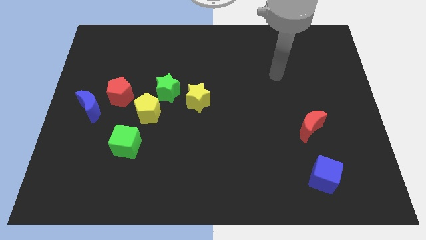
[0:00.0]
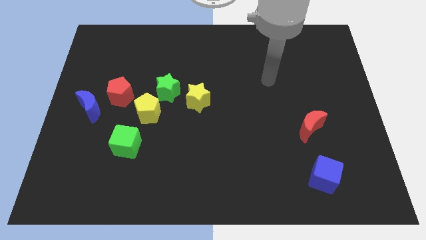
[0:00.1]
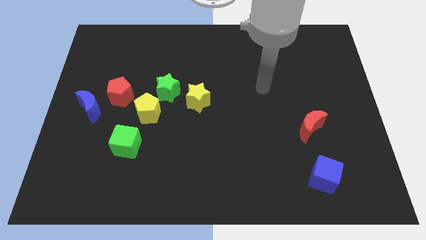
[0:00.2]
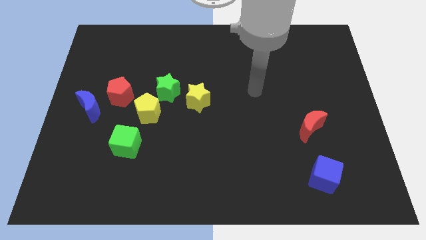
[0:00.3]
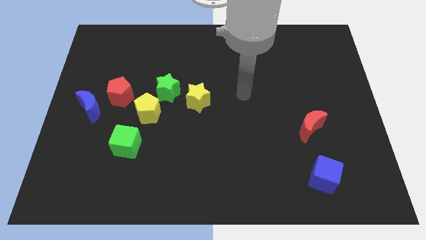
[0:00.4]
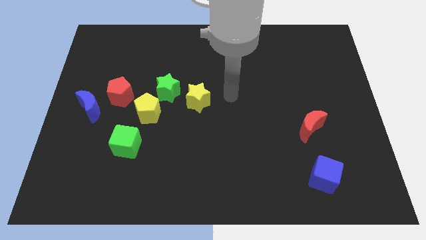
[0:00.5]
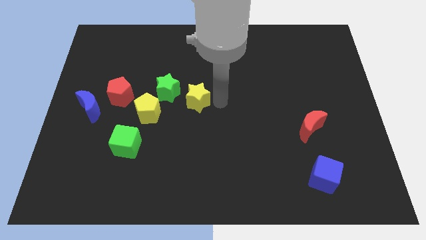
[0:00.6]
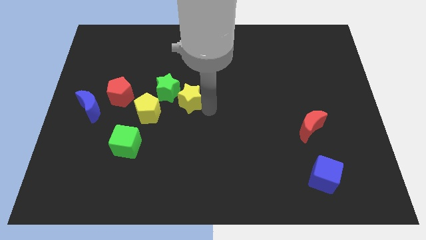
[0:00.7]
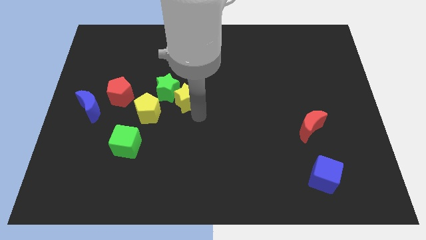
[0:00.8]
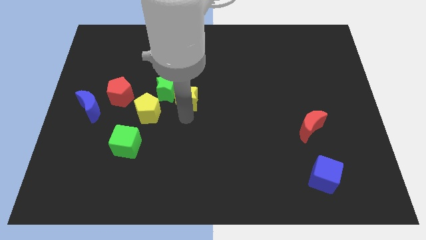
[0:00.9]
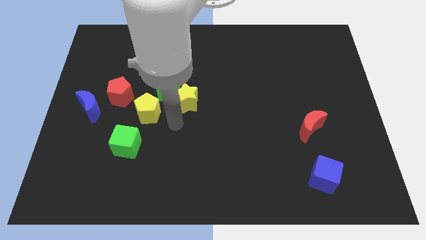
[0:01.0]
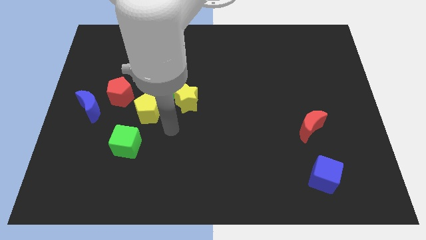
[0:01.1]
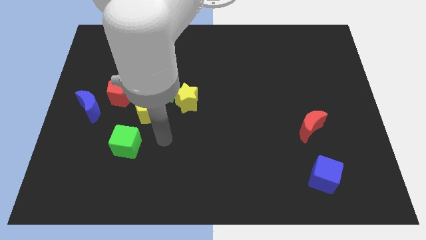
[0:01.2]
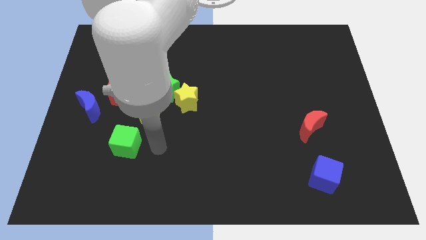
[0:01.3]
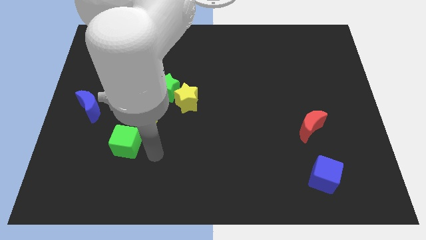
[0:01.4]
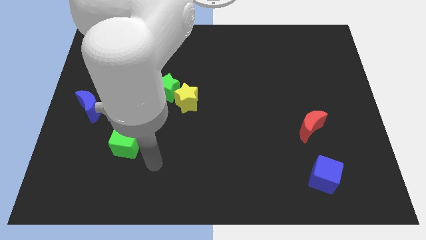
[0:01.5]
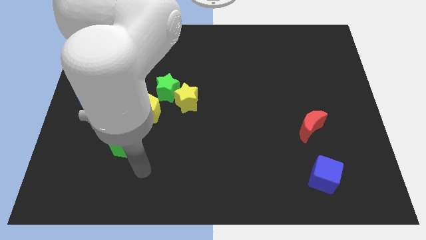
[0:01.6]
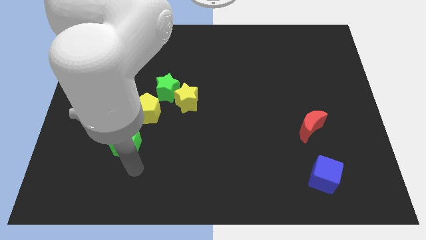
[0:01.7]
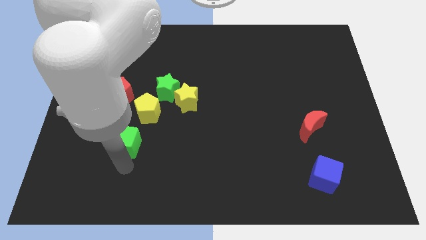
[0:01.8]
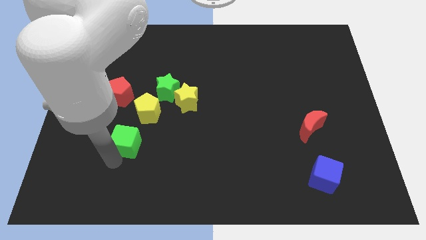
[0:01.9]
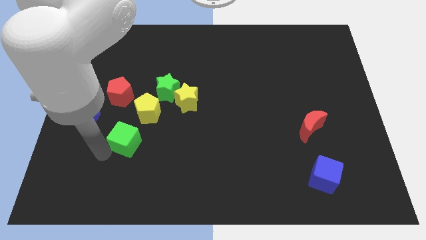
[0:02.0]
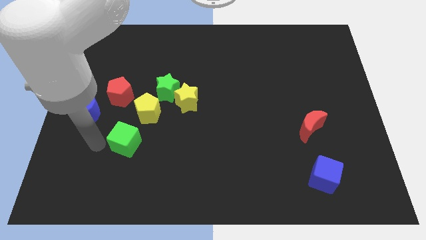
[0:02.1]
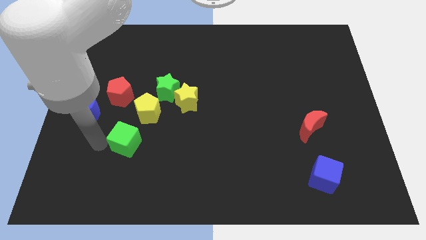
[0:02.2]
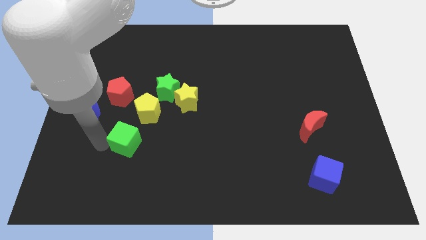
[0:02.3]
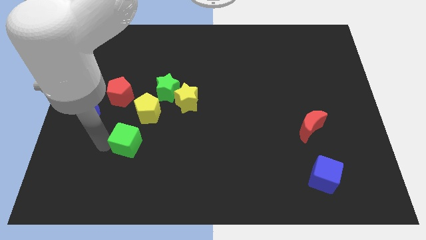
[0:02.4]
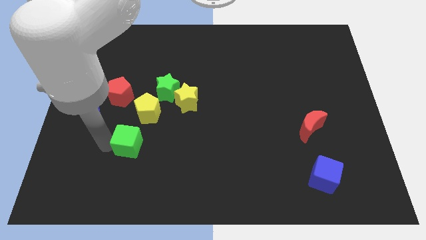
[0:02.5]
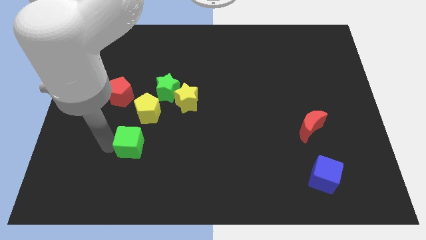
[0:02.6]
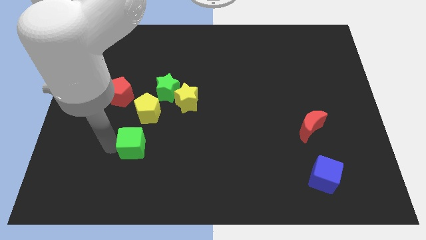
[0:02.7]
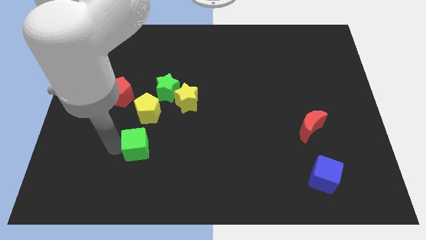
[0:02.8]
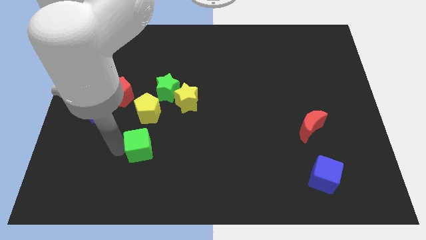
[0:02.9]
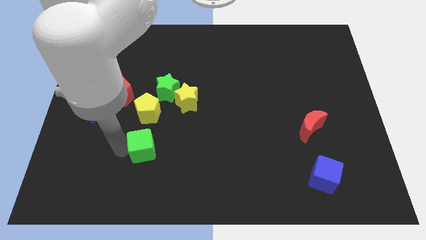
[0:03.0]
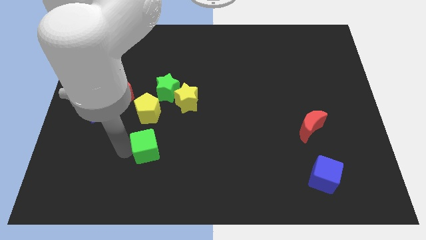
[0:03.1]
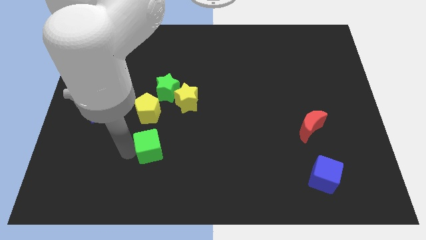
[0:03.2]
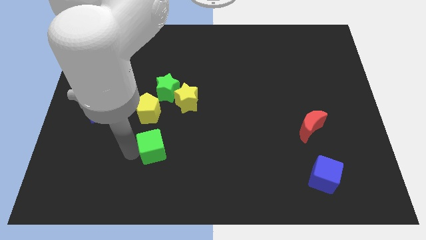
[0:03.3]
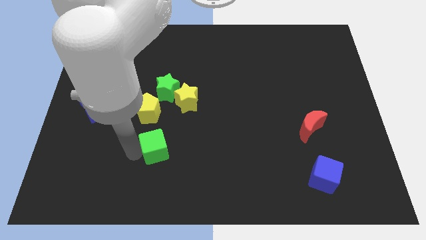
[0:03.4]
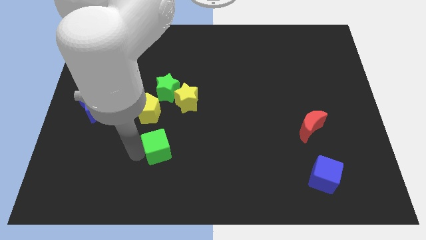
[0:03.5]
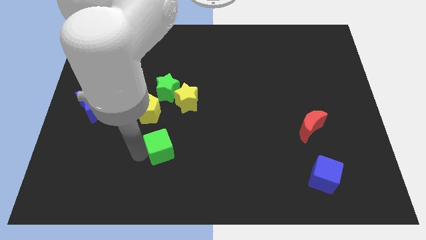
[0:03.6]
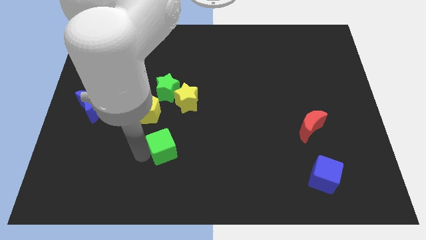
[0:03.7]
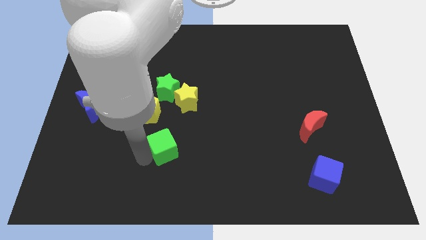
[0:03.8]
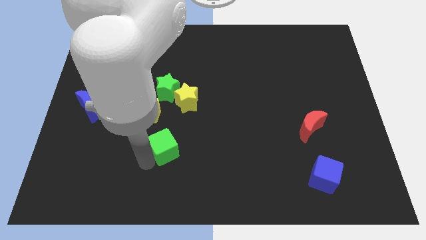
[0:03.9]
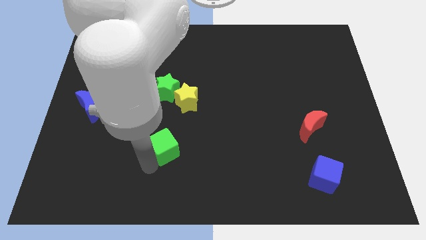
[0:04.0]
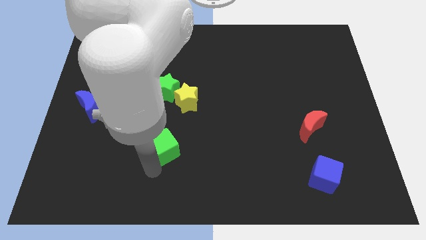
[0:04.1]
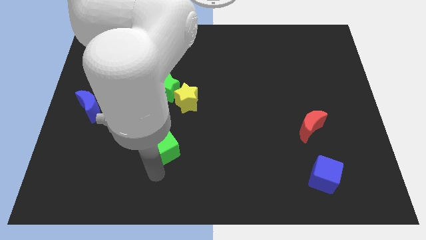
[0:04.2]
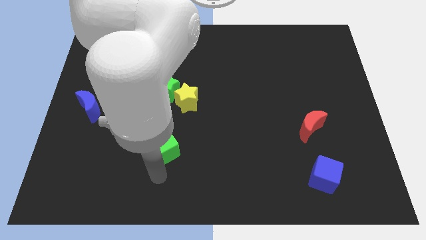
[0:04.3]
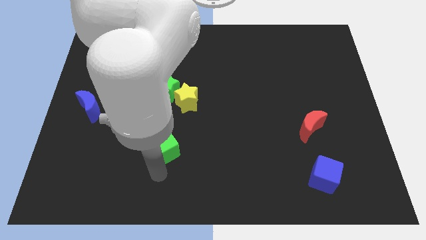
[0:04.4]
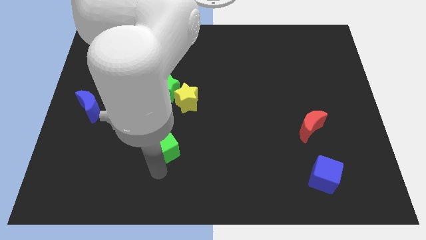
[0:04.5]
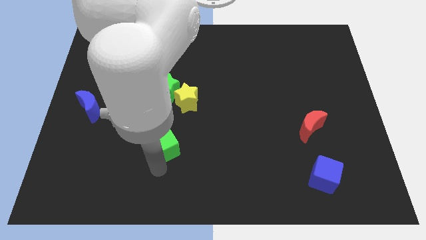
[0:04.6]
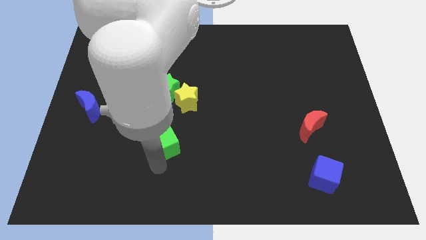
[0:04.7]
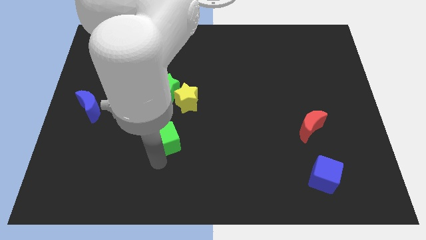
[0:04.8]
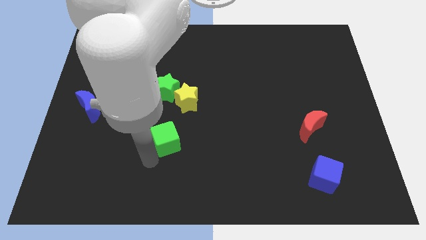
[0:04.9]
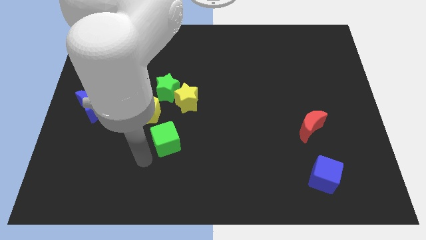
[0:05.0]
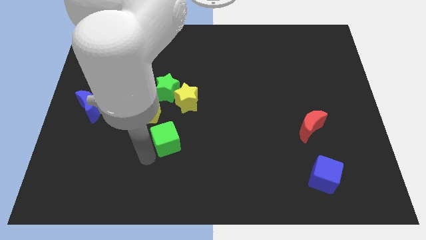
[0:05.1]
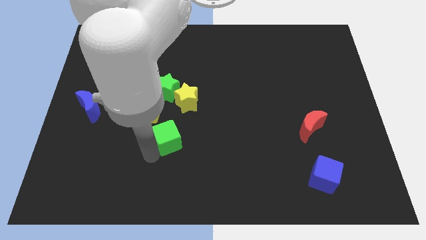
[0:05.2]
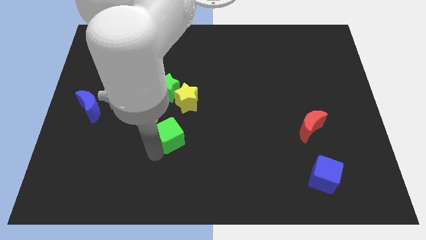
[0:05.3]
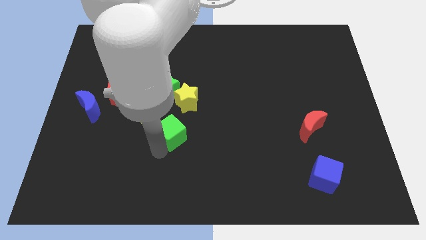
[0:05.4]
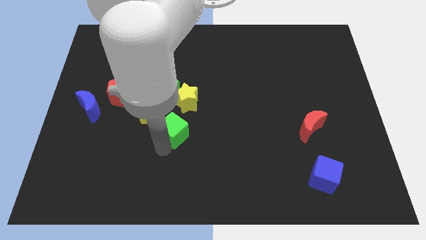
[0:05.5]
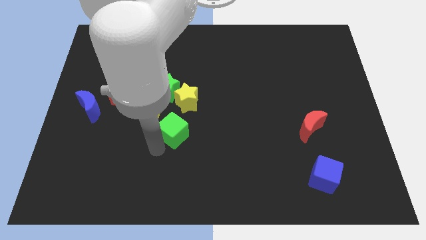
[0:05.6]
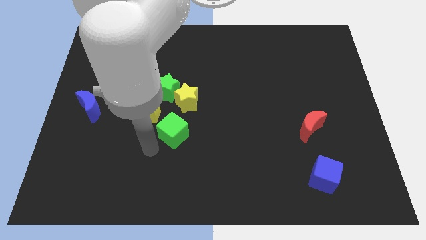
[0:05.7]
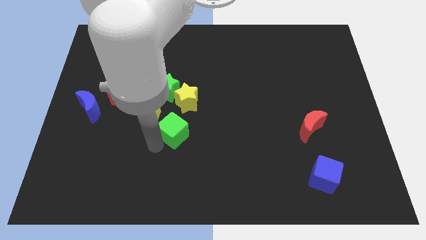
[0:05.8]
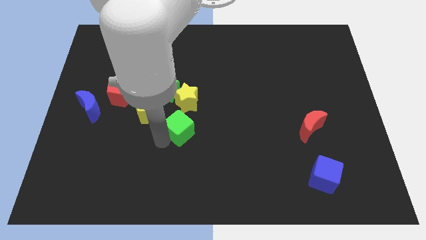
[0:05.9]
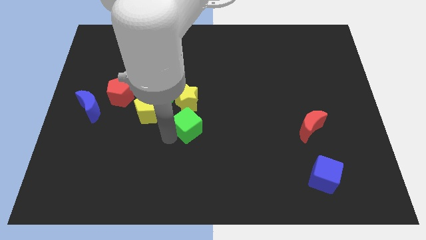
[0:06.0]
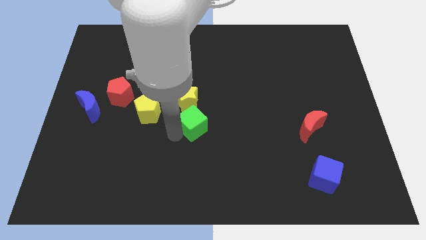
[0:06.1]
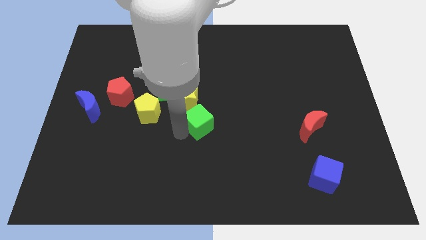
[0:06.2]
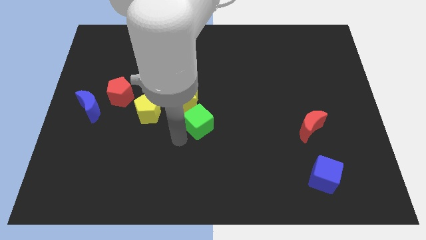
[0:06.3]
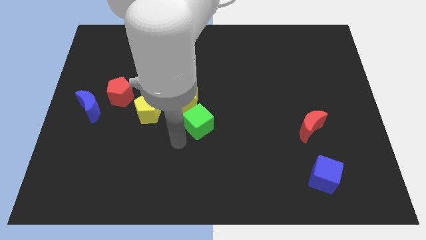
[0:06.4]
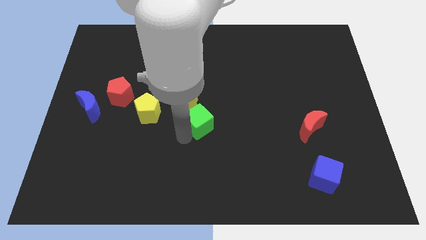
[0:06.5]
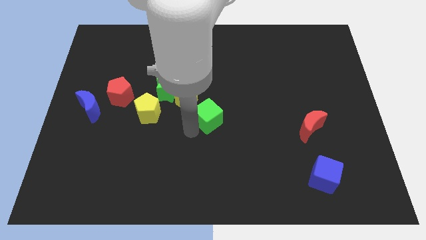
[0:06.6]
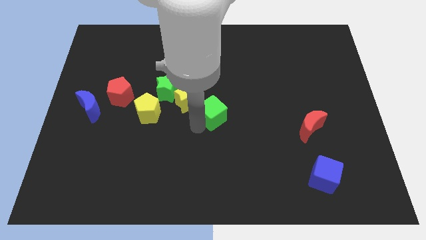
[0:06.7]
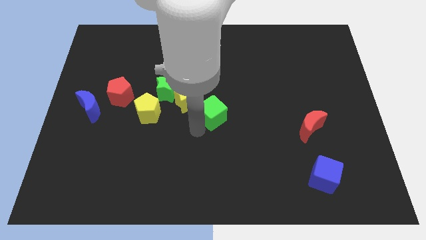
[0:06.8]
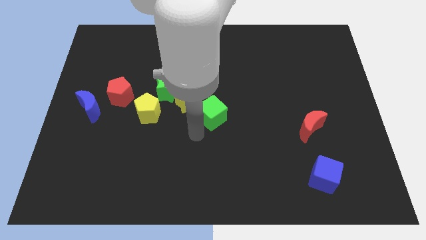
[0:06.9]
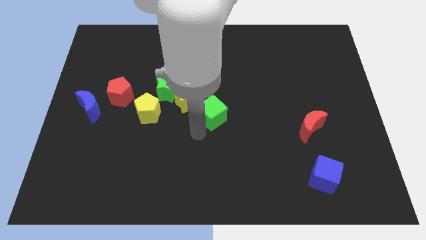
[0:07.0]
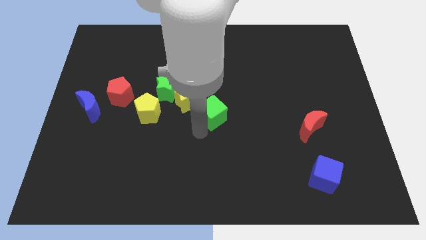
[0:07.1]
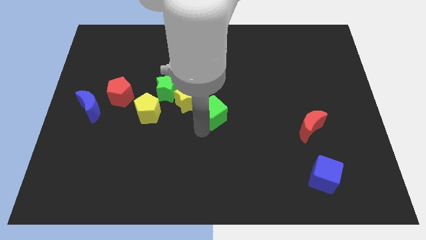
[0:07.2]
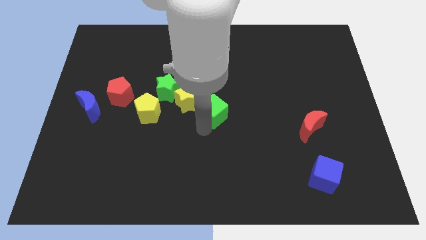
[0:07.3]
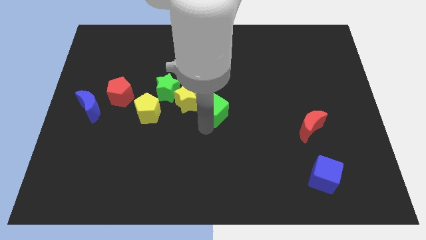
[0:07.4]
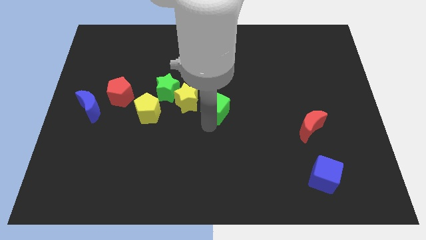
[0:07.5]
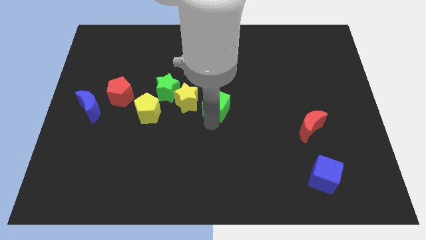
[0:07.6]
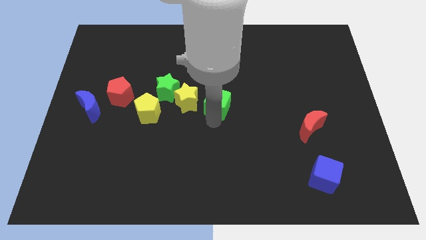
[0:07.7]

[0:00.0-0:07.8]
move the green cube upwards and to the right diagonally

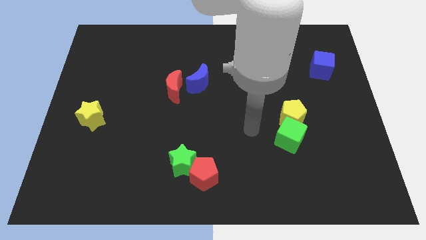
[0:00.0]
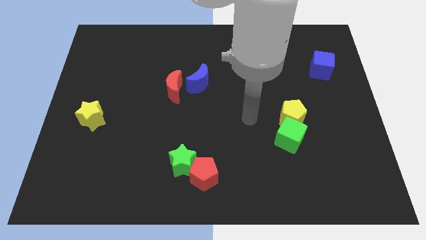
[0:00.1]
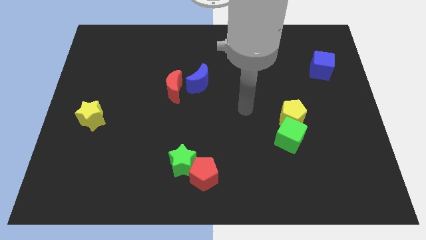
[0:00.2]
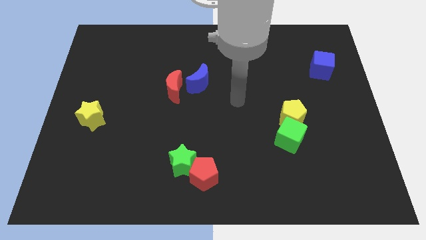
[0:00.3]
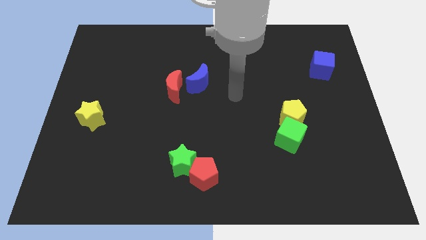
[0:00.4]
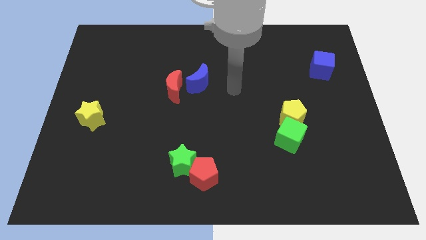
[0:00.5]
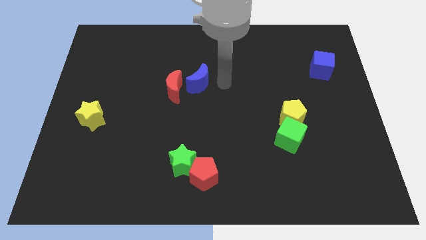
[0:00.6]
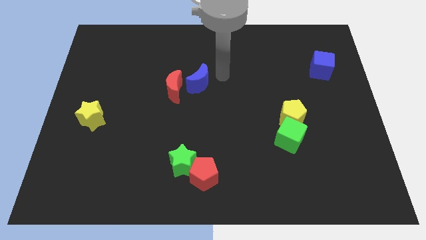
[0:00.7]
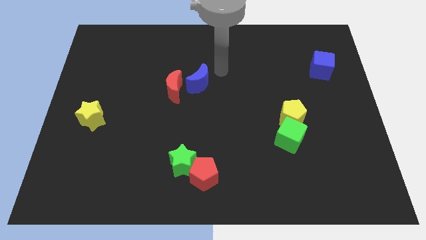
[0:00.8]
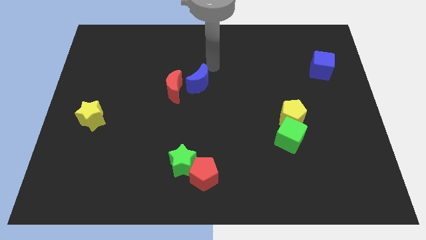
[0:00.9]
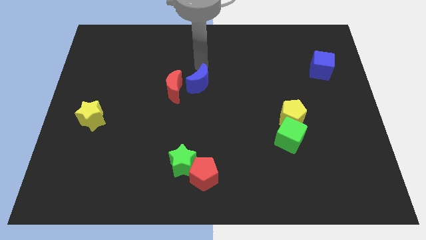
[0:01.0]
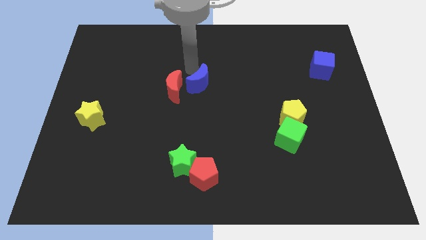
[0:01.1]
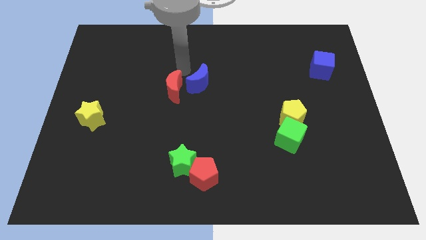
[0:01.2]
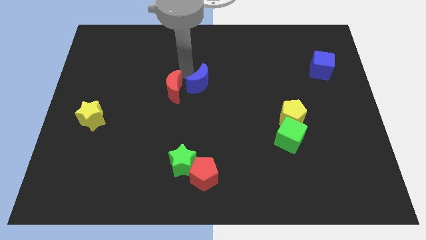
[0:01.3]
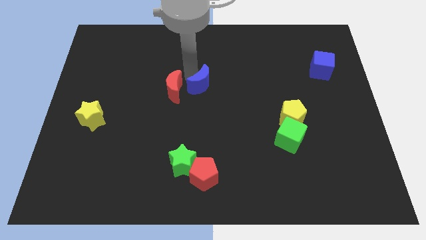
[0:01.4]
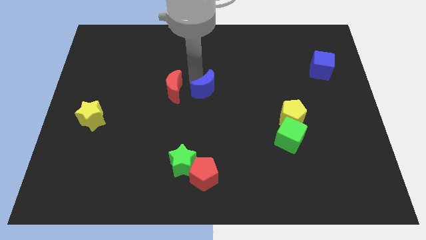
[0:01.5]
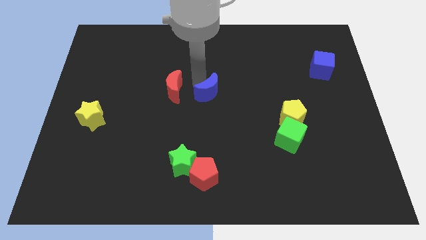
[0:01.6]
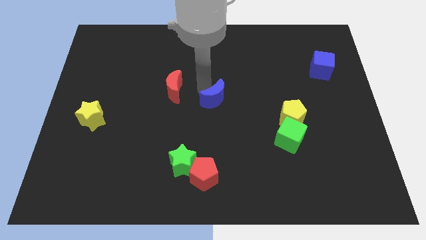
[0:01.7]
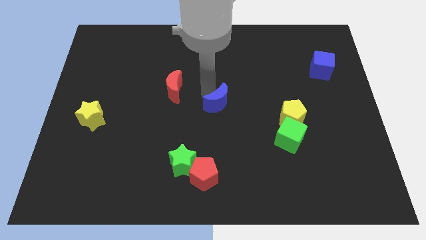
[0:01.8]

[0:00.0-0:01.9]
slide the blue moon a little down and right
